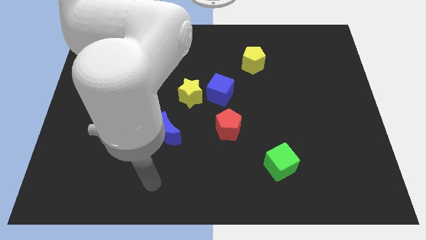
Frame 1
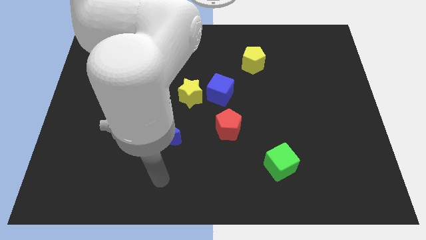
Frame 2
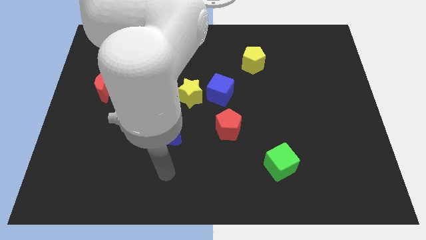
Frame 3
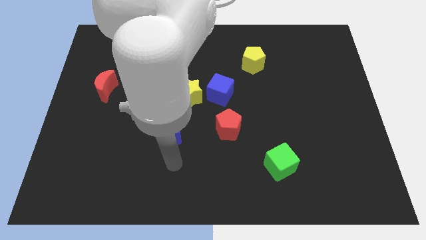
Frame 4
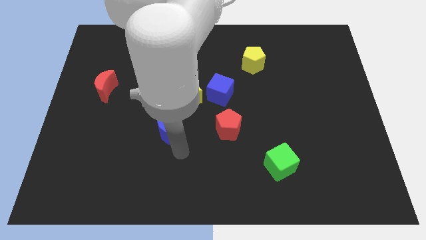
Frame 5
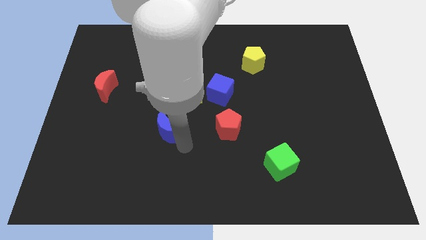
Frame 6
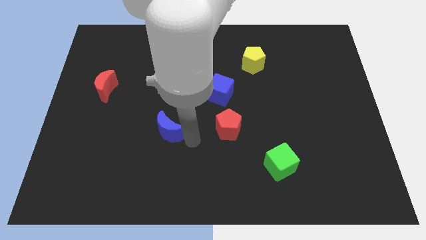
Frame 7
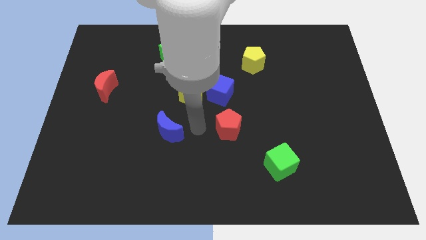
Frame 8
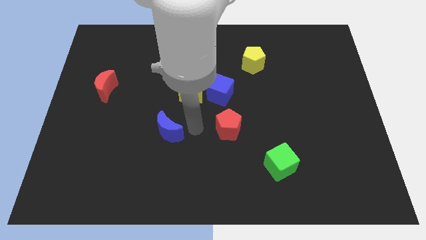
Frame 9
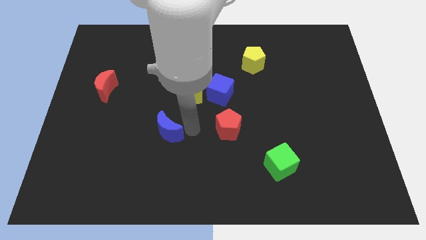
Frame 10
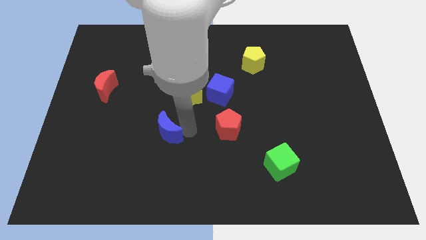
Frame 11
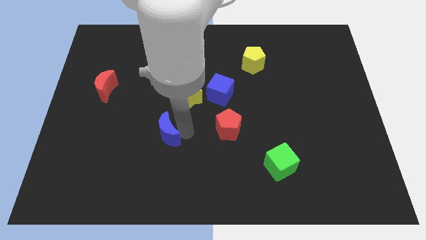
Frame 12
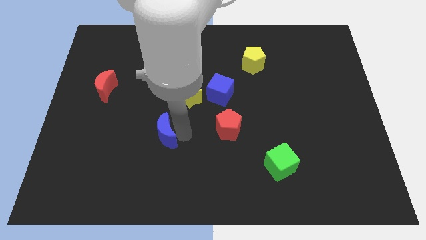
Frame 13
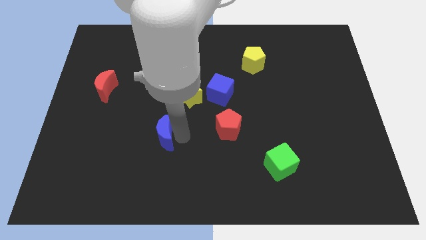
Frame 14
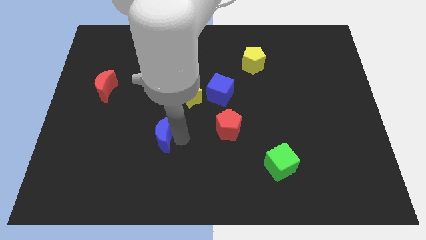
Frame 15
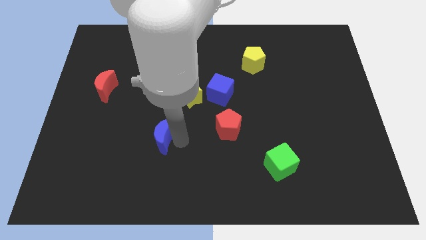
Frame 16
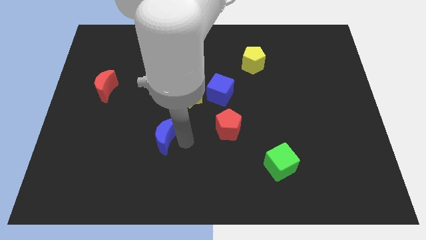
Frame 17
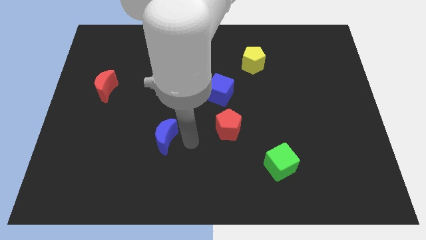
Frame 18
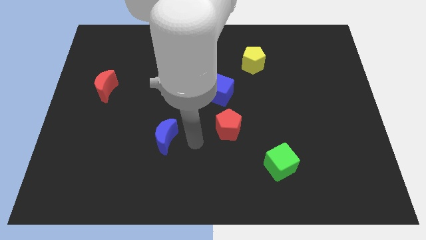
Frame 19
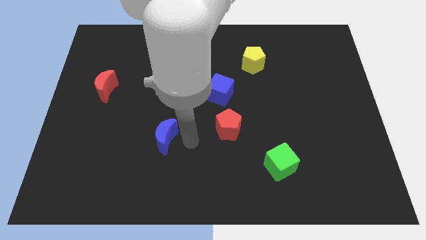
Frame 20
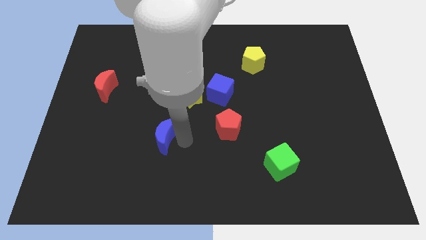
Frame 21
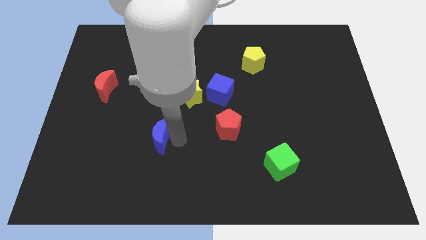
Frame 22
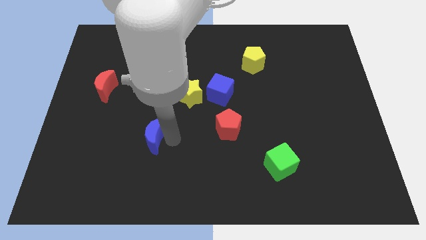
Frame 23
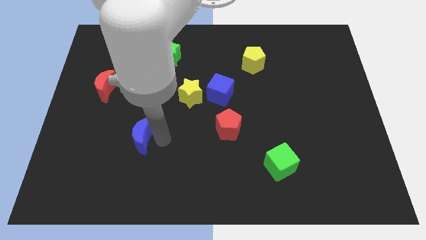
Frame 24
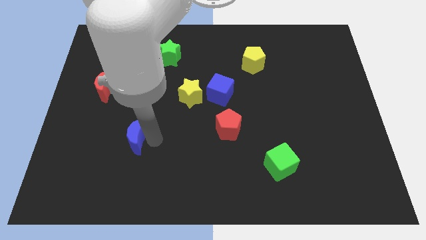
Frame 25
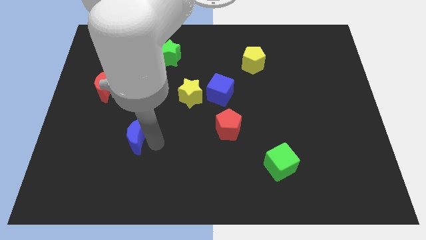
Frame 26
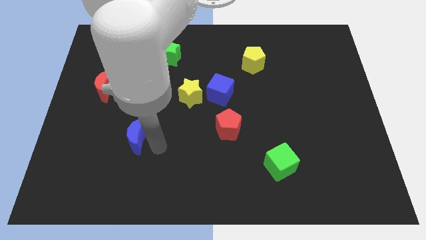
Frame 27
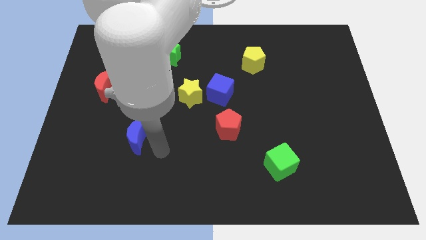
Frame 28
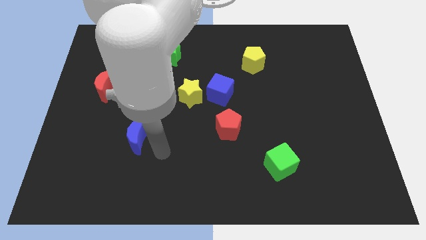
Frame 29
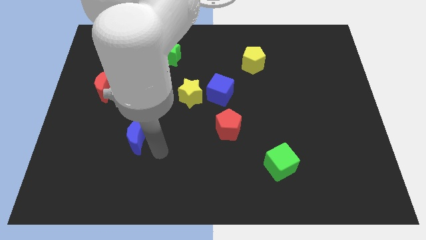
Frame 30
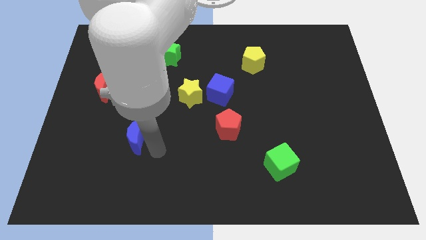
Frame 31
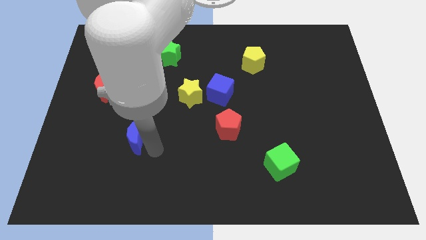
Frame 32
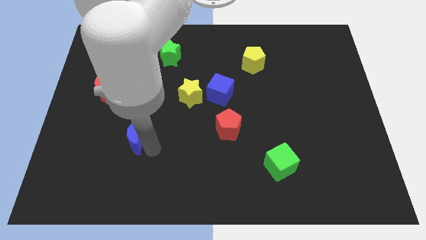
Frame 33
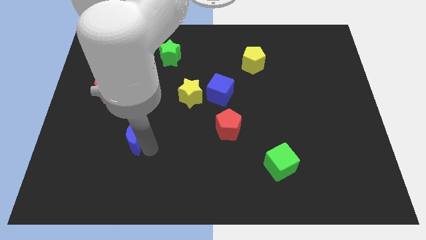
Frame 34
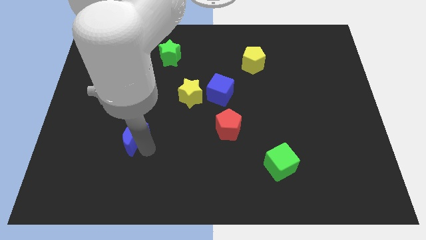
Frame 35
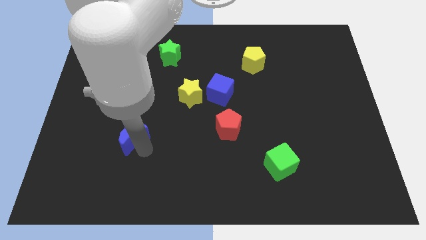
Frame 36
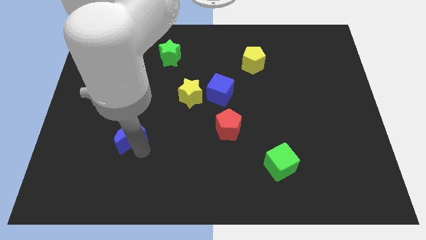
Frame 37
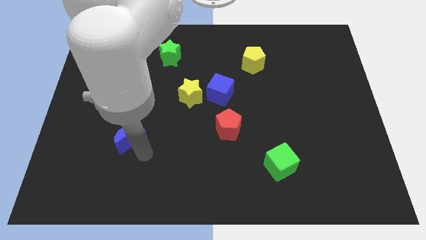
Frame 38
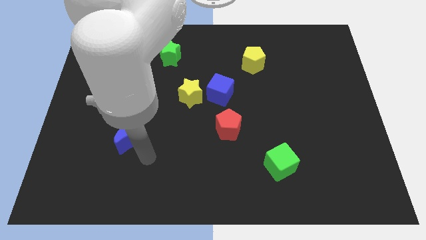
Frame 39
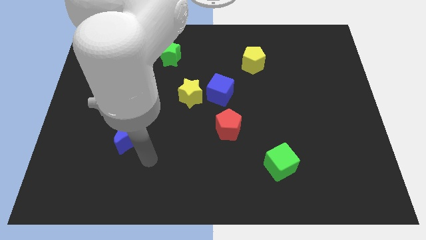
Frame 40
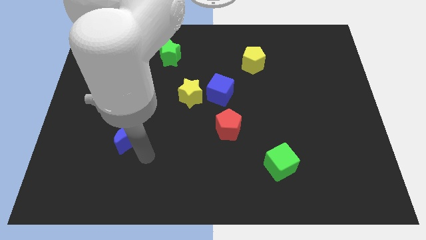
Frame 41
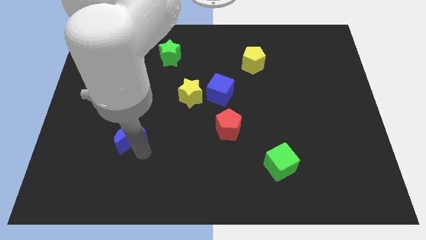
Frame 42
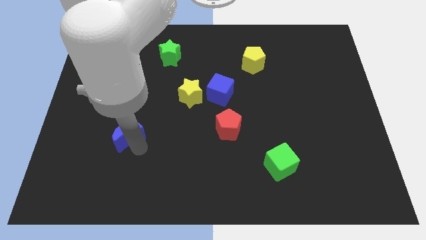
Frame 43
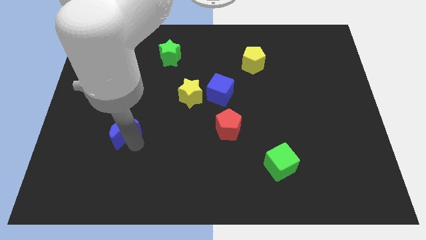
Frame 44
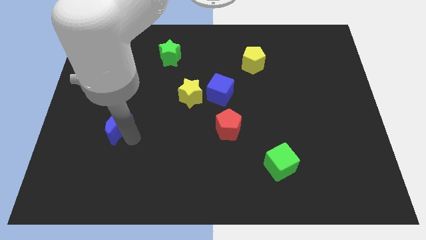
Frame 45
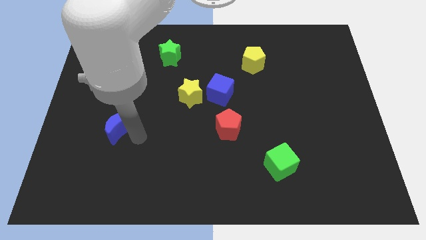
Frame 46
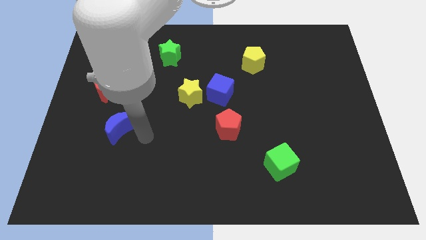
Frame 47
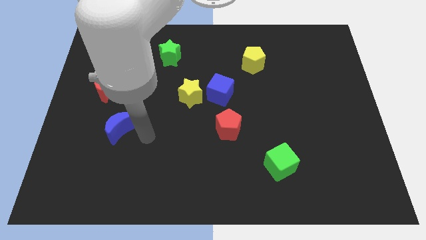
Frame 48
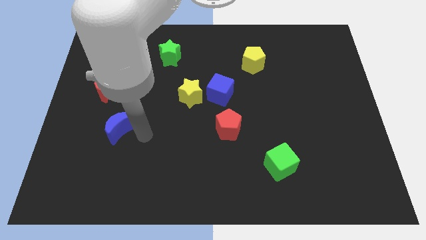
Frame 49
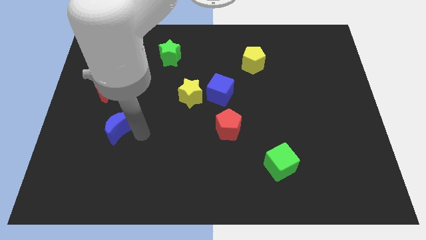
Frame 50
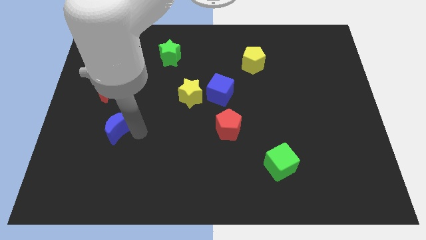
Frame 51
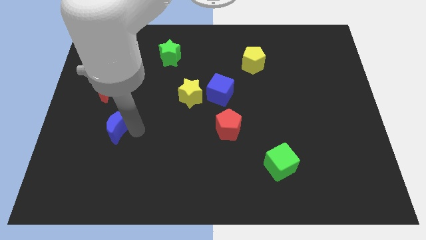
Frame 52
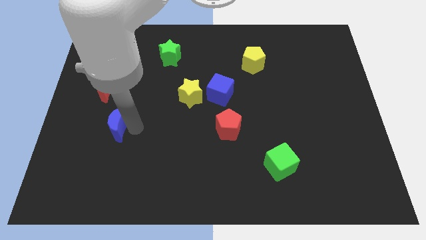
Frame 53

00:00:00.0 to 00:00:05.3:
put the blue moon to the bottom side of the red moon
